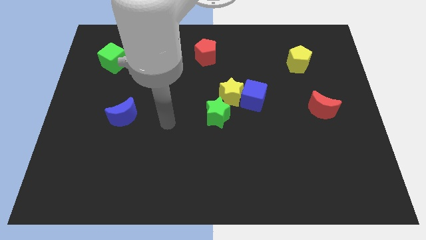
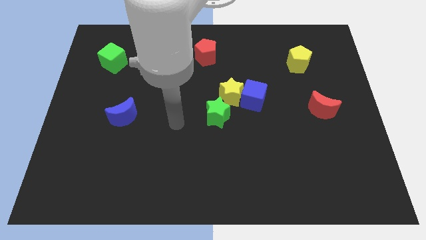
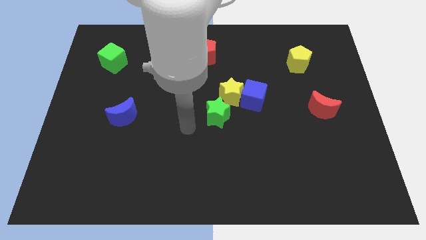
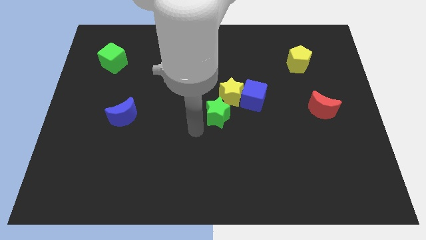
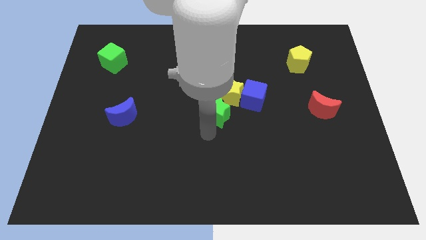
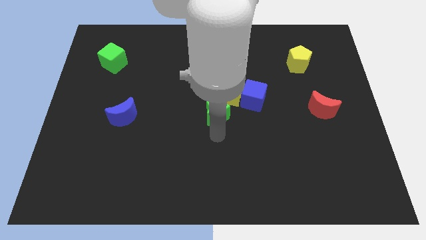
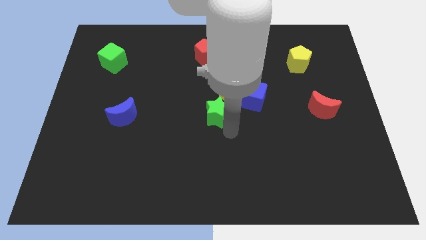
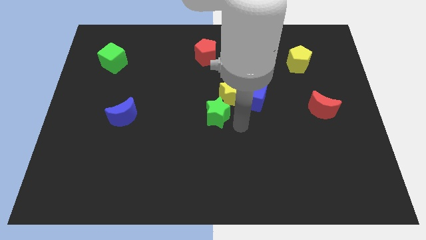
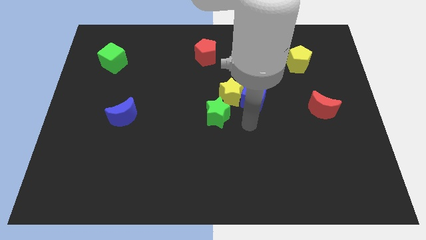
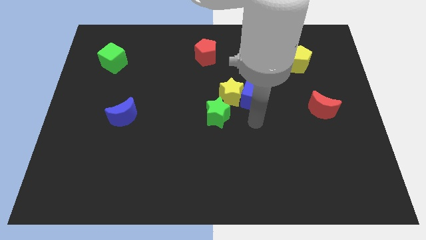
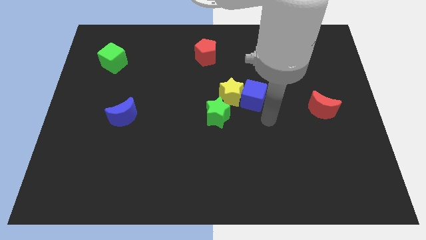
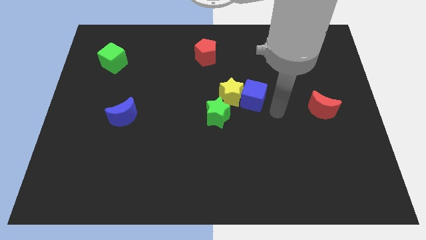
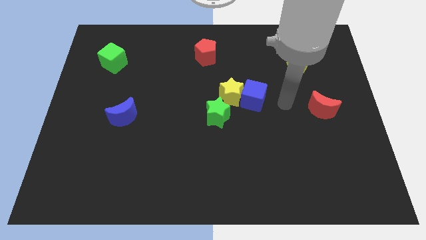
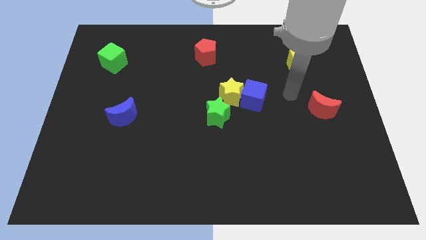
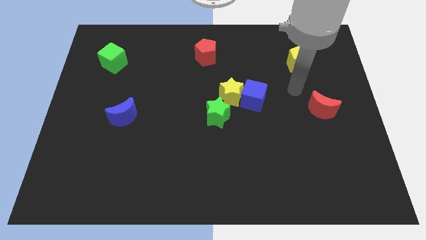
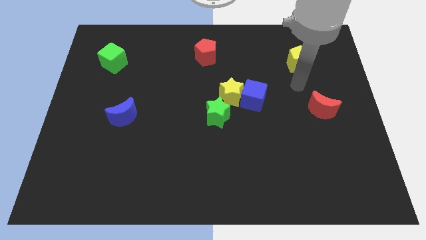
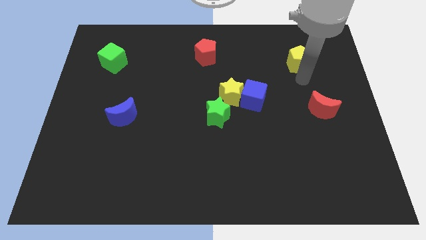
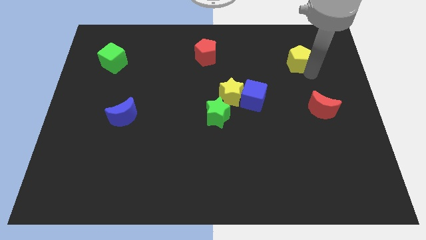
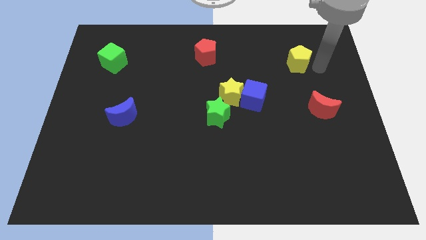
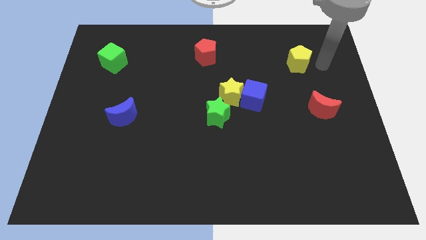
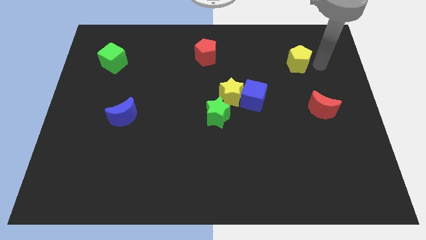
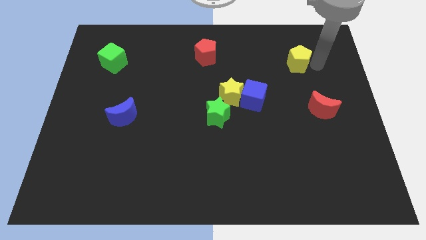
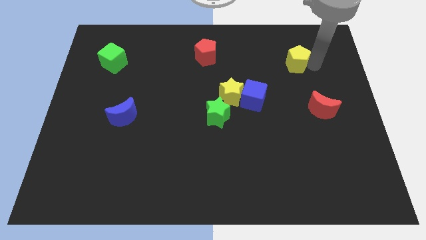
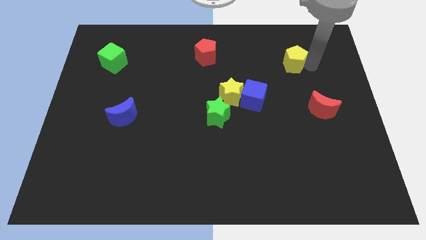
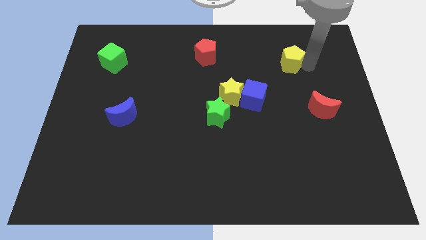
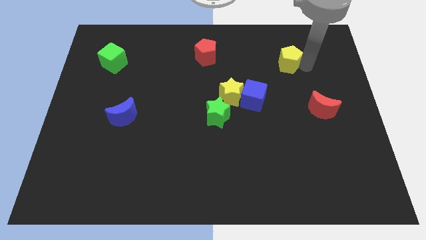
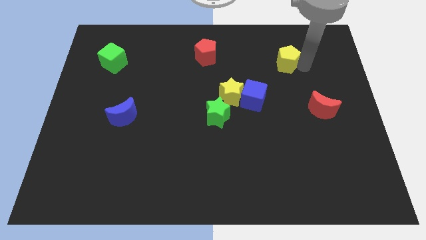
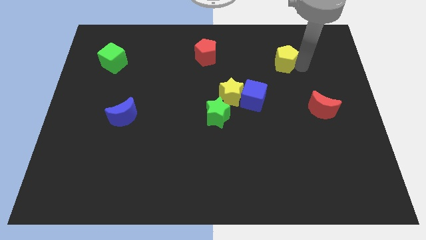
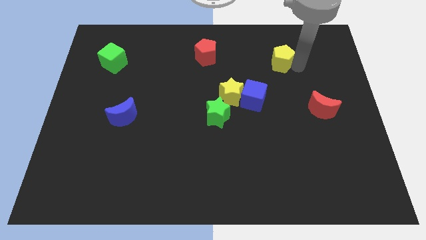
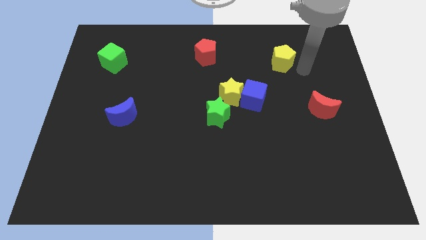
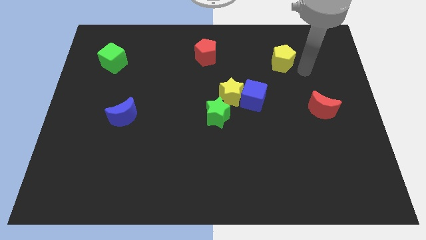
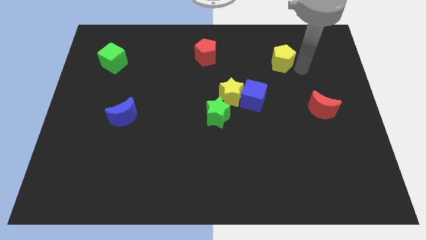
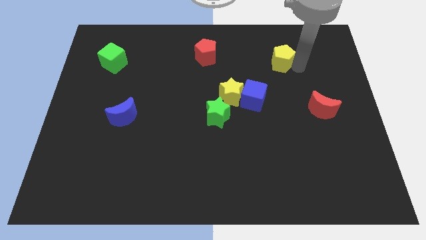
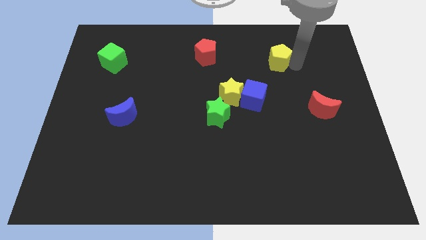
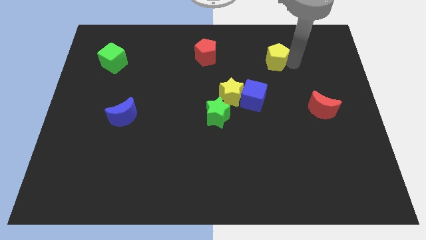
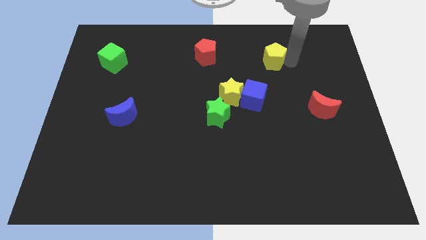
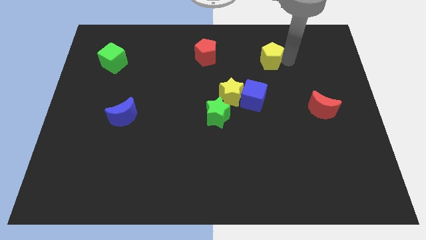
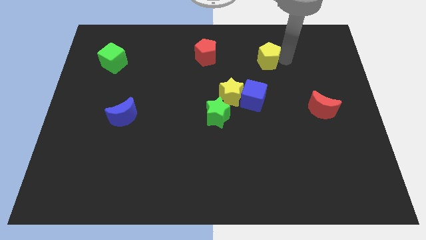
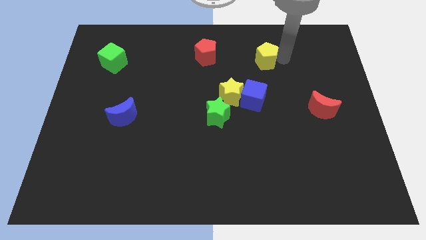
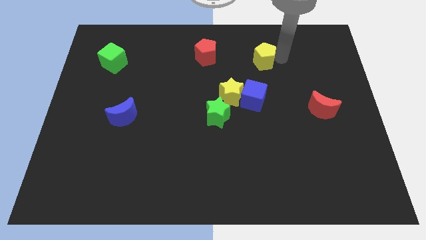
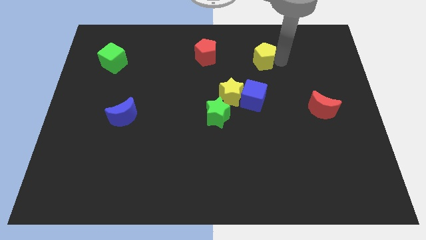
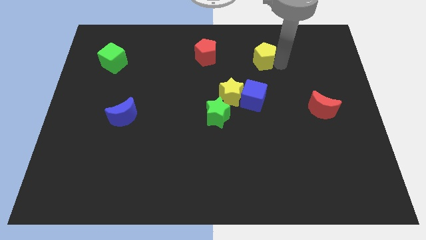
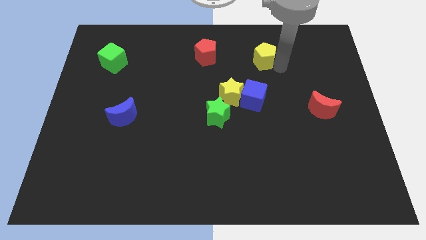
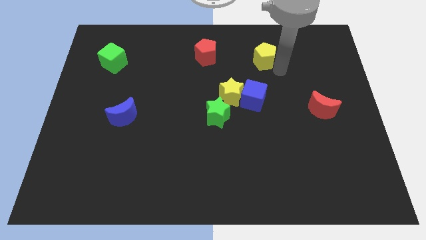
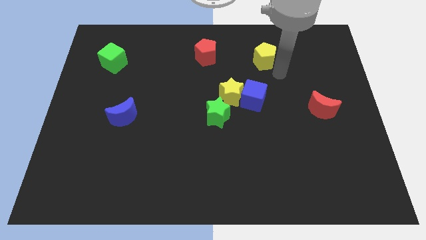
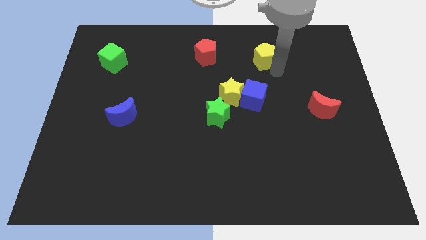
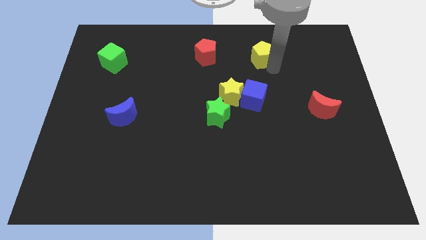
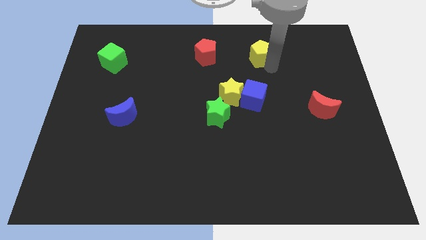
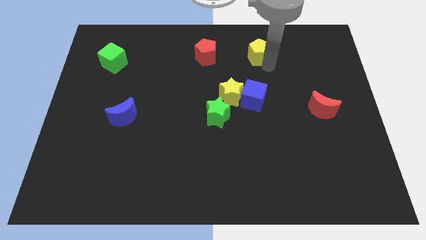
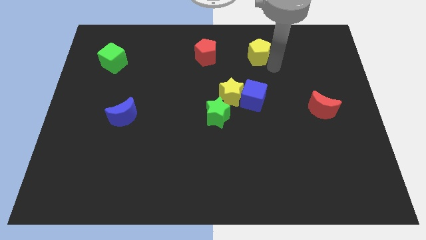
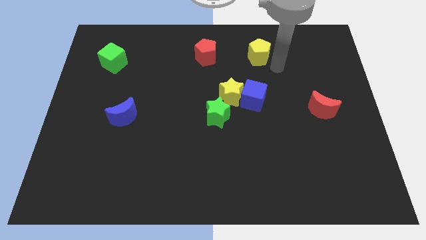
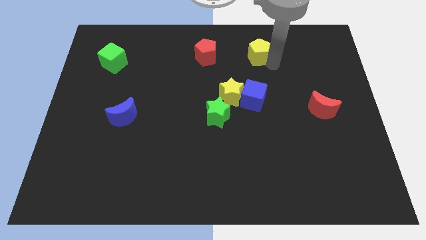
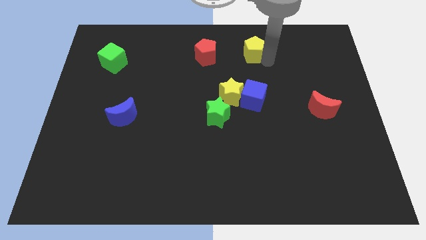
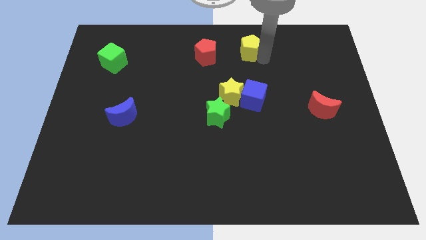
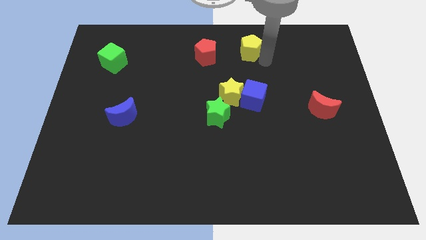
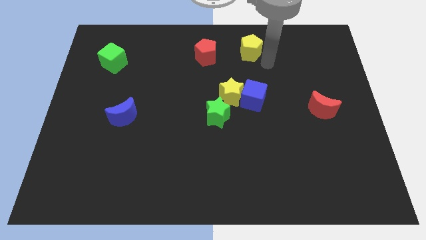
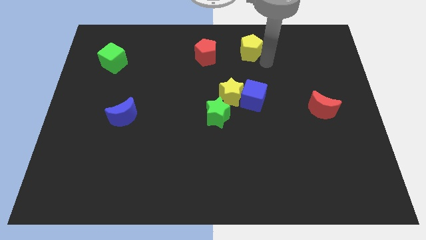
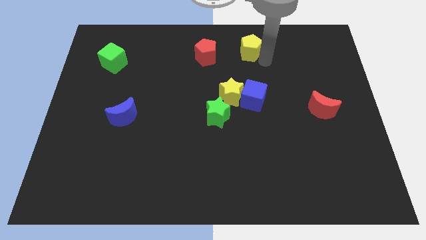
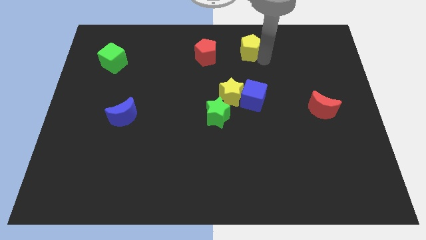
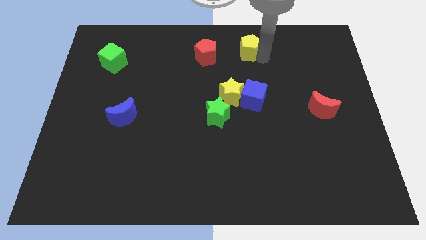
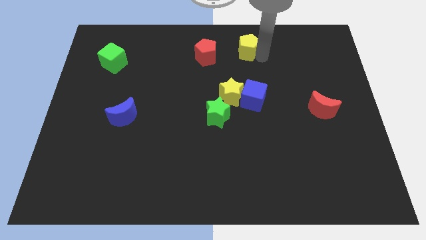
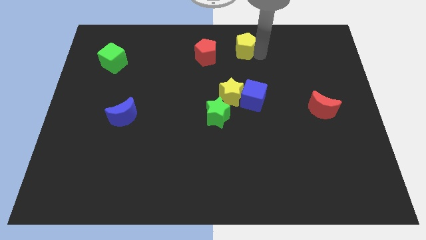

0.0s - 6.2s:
move the yellow pentagon to the top

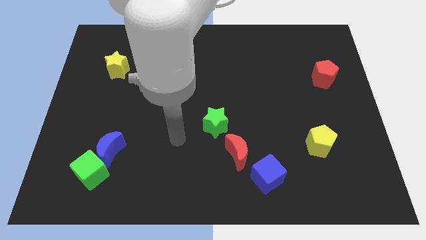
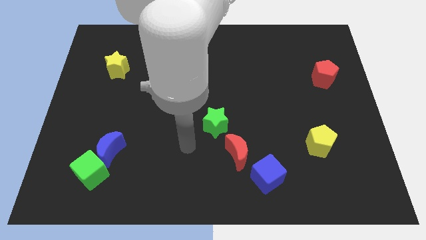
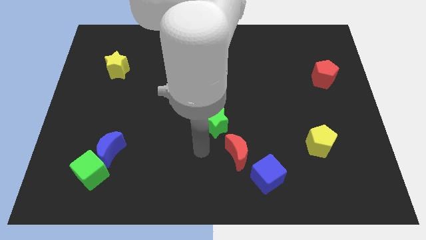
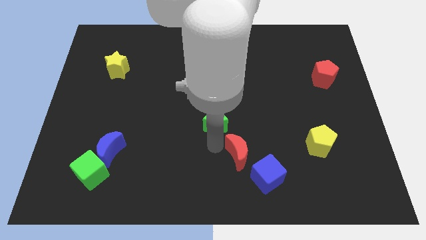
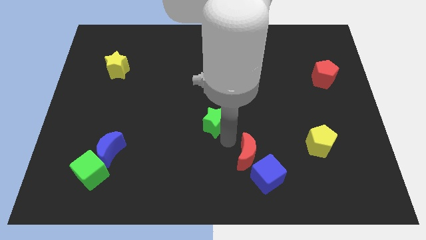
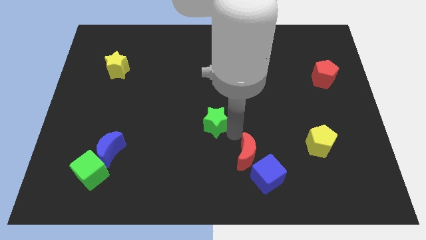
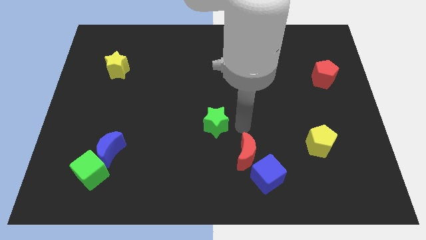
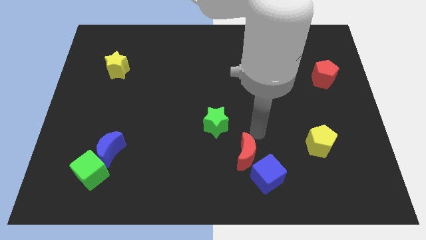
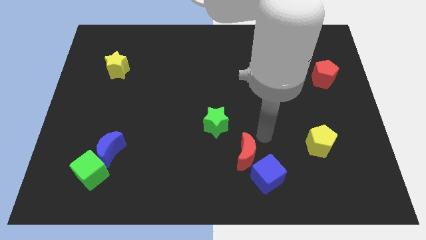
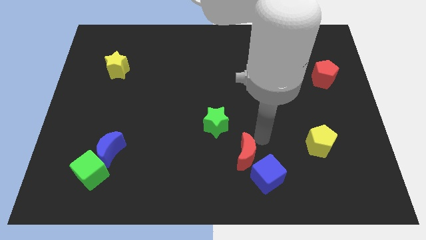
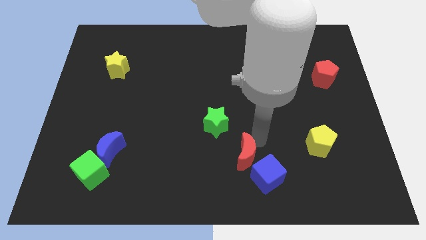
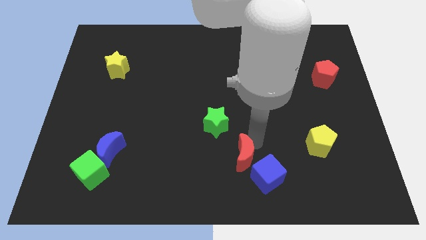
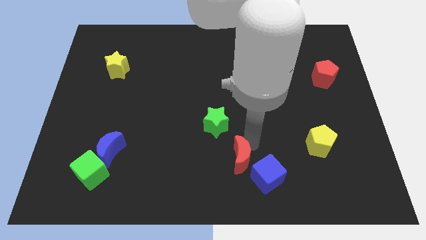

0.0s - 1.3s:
push the red moon to the bottom
